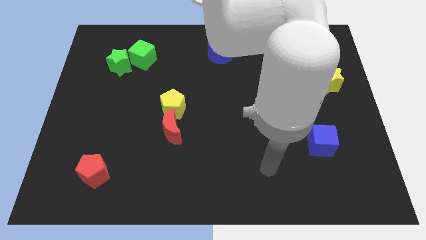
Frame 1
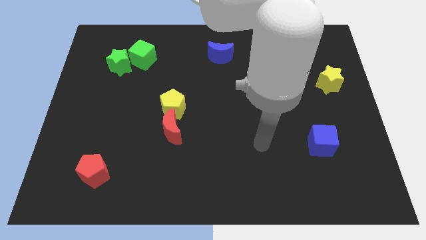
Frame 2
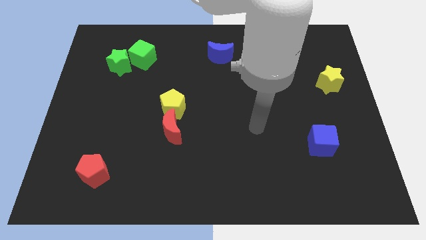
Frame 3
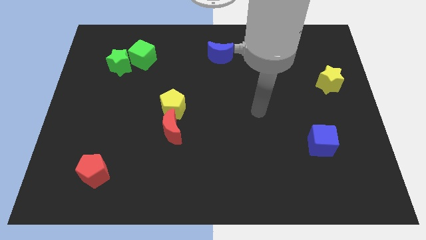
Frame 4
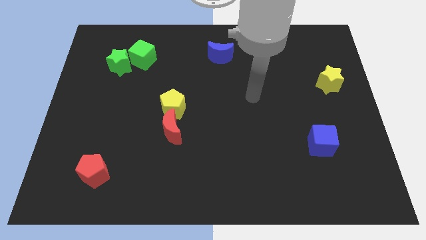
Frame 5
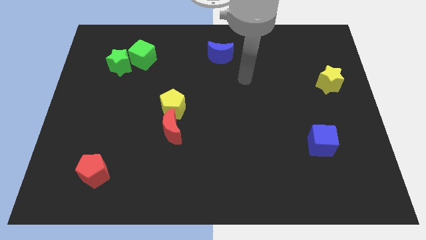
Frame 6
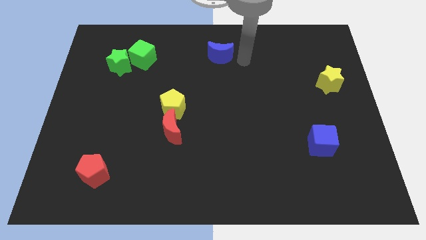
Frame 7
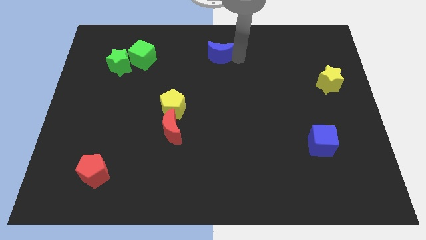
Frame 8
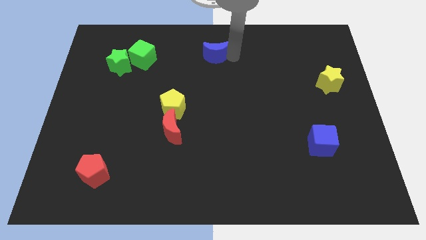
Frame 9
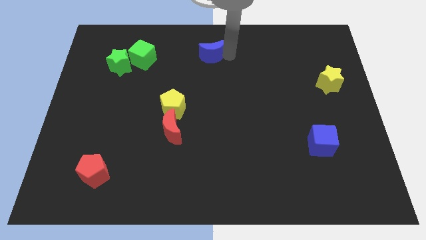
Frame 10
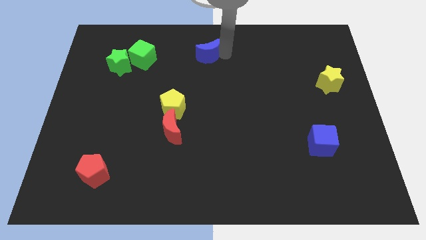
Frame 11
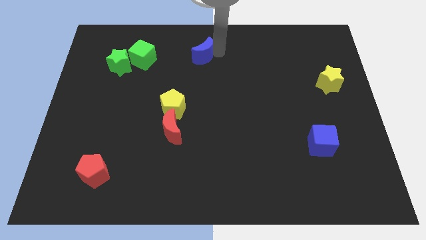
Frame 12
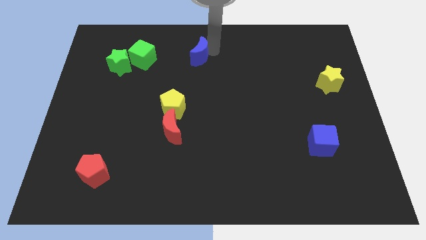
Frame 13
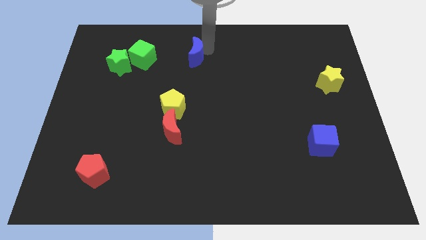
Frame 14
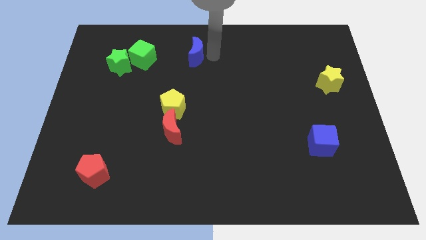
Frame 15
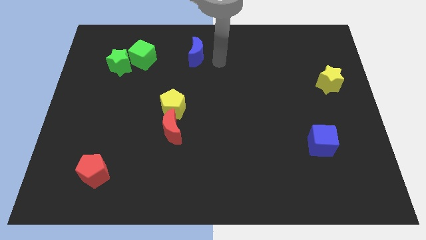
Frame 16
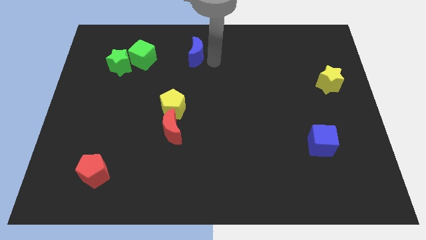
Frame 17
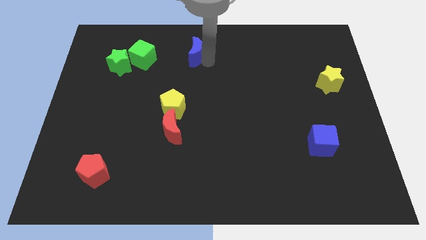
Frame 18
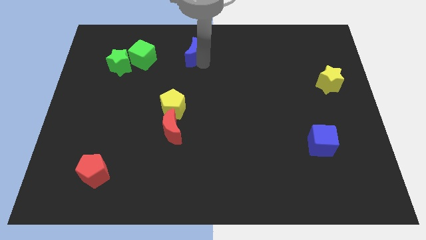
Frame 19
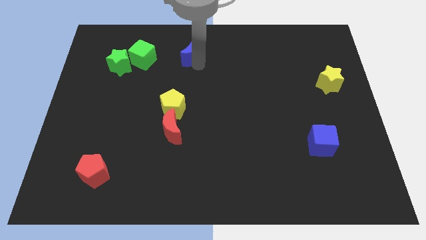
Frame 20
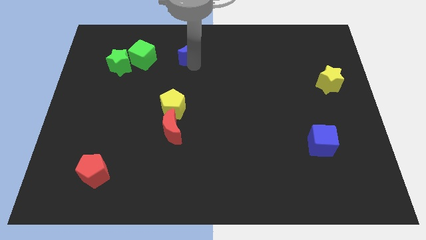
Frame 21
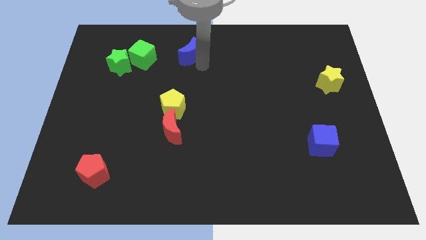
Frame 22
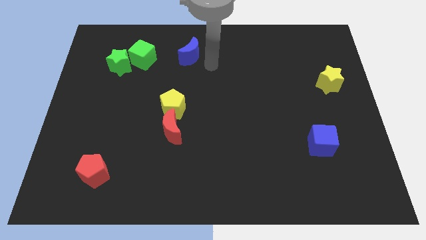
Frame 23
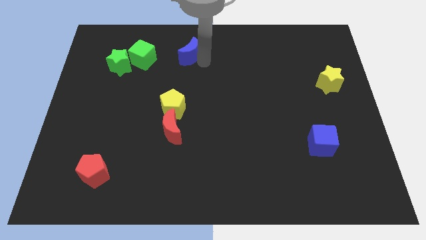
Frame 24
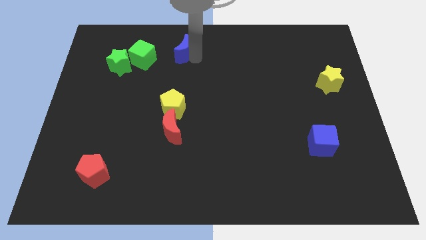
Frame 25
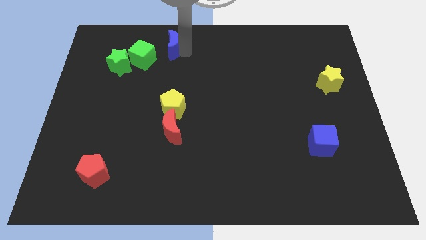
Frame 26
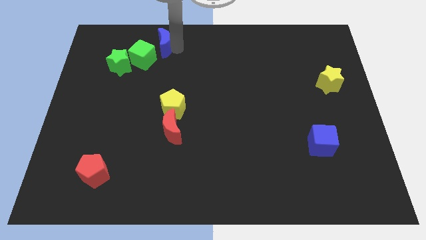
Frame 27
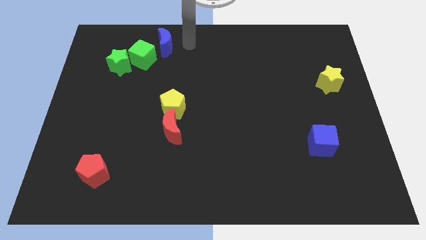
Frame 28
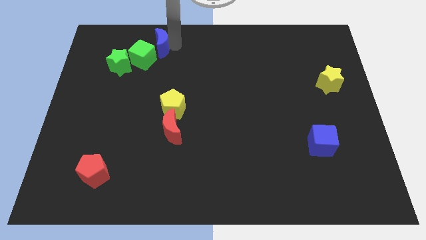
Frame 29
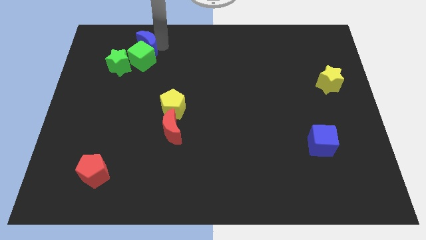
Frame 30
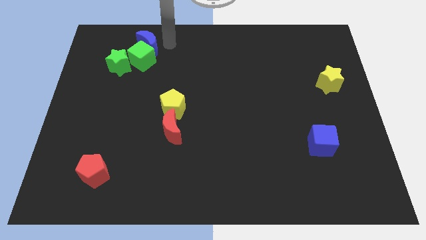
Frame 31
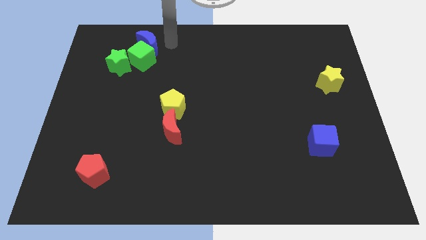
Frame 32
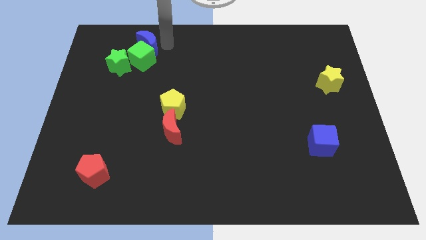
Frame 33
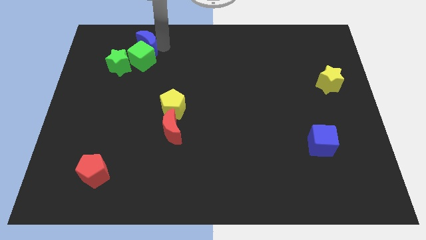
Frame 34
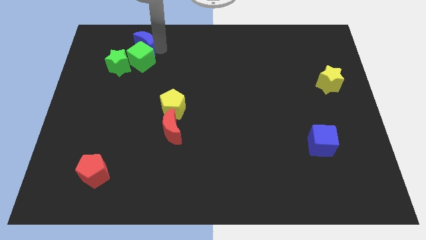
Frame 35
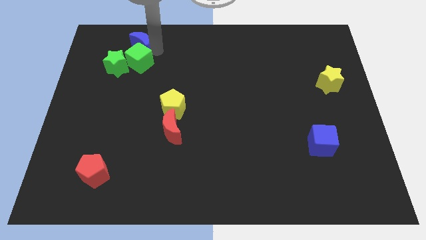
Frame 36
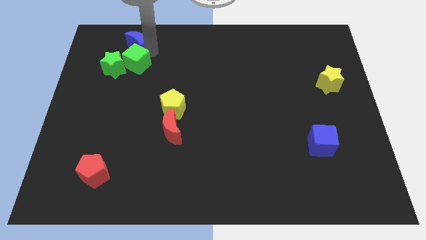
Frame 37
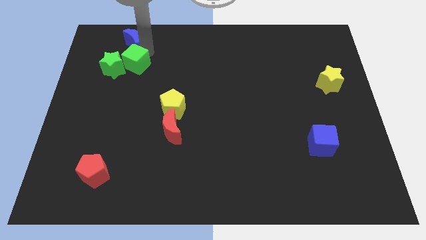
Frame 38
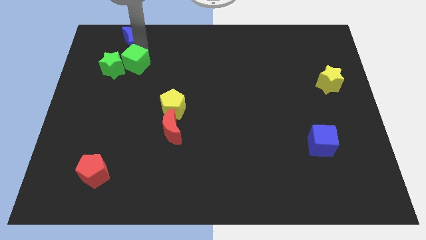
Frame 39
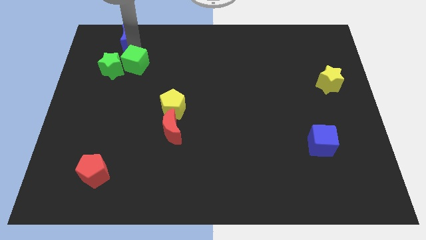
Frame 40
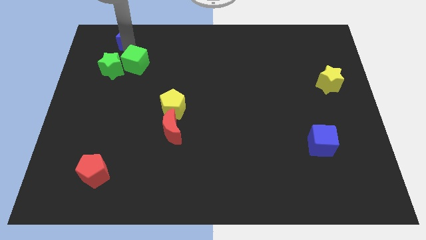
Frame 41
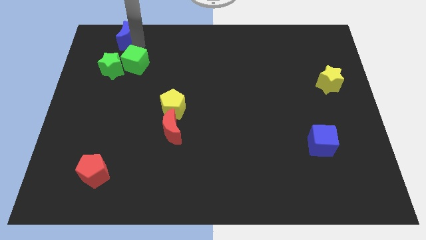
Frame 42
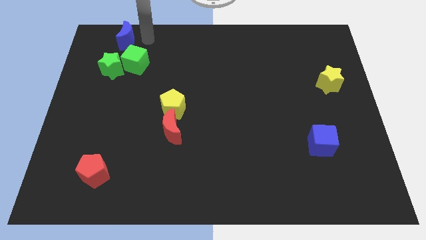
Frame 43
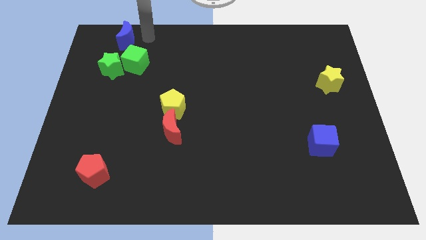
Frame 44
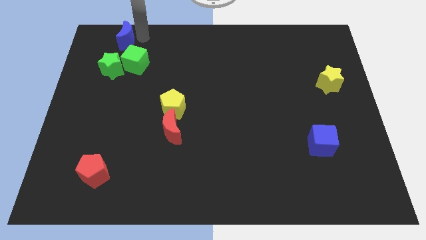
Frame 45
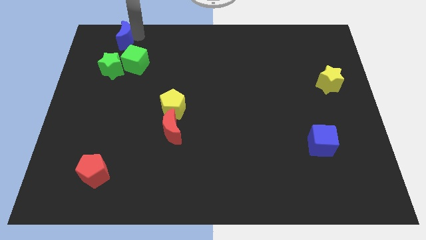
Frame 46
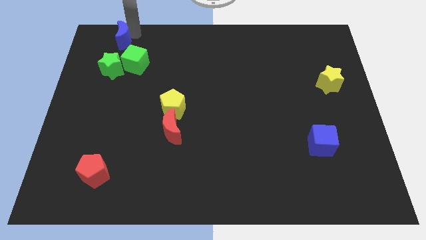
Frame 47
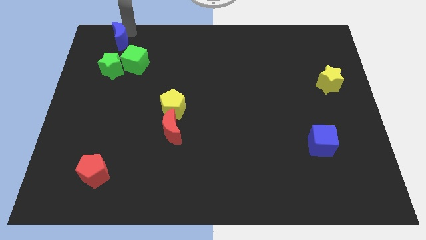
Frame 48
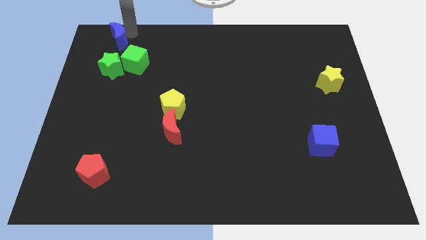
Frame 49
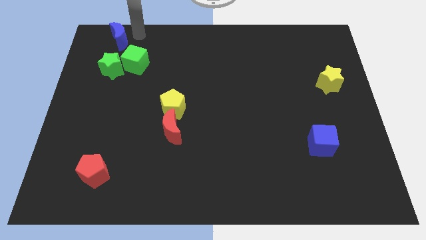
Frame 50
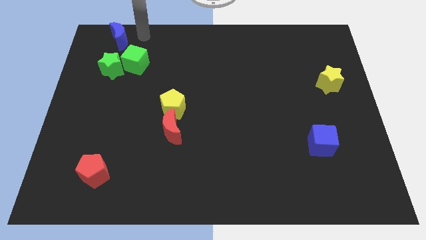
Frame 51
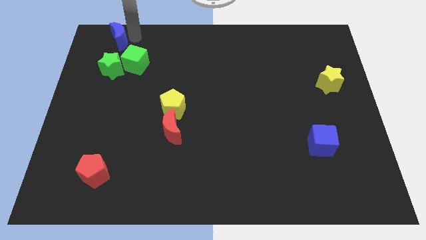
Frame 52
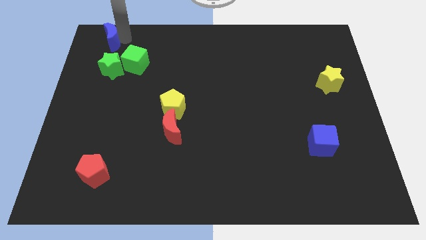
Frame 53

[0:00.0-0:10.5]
move the blue moon to the upper left corner

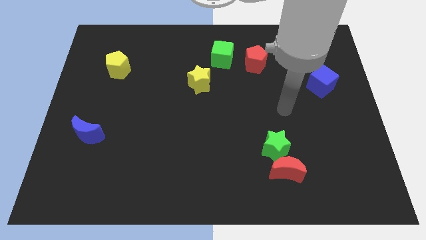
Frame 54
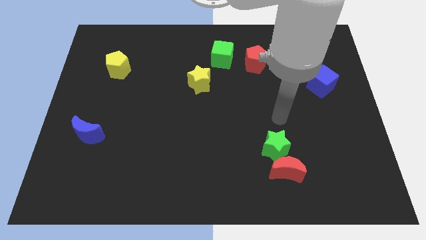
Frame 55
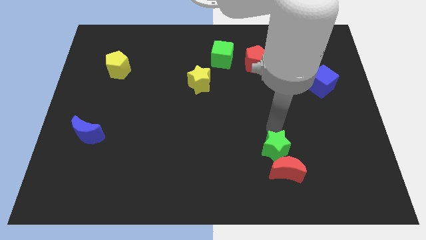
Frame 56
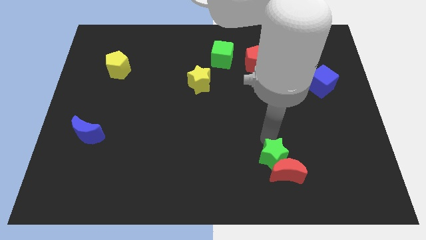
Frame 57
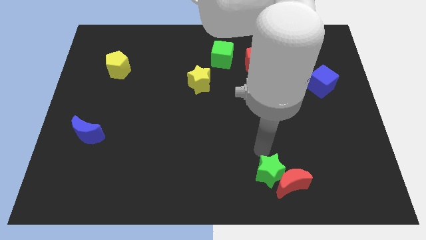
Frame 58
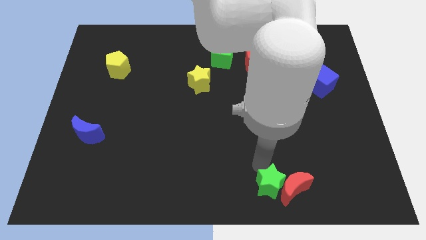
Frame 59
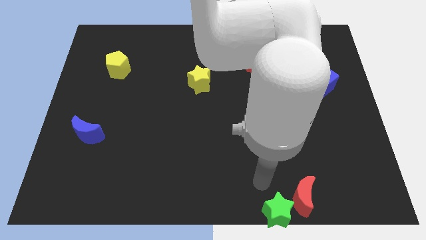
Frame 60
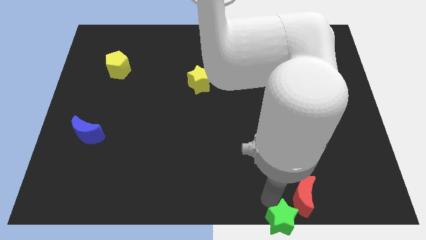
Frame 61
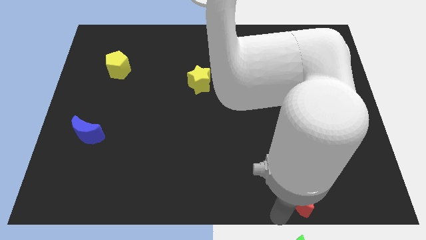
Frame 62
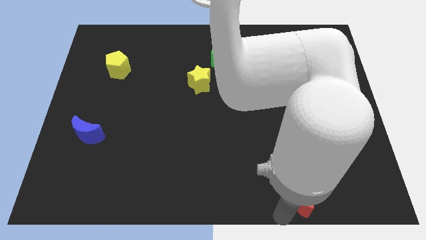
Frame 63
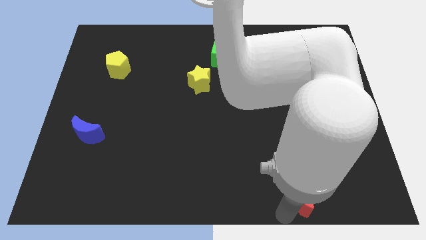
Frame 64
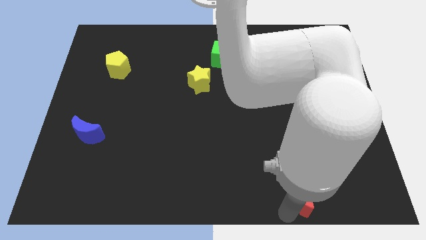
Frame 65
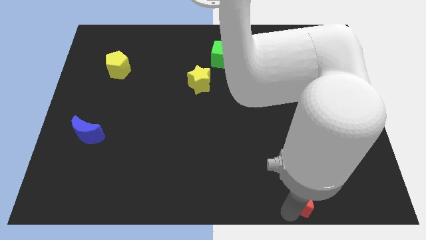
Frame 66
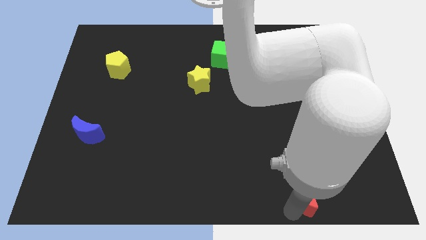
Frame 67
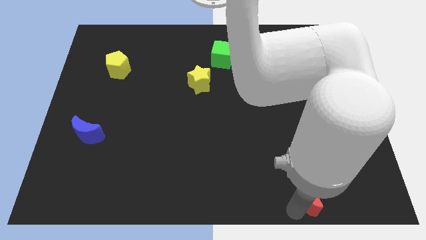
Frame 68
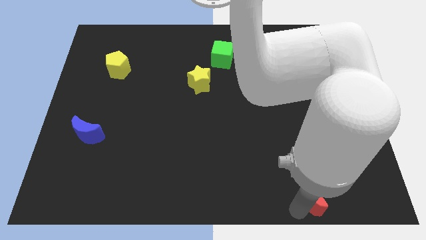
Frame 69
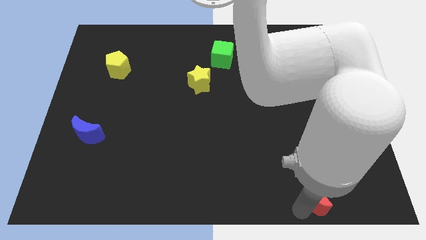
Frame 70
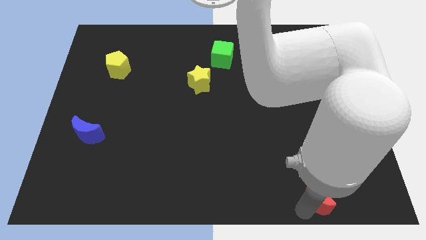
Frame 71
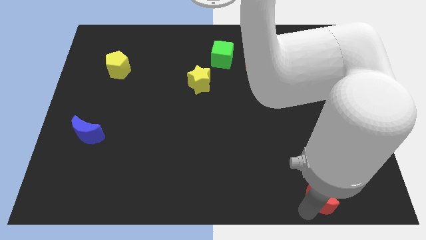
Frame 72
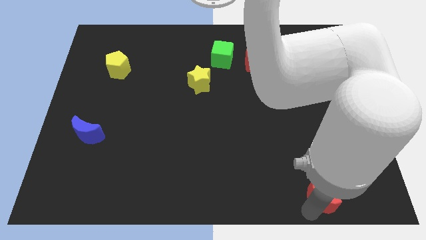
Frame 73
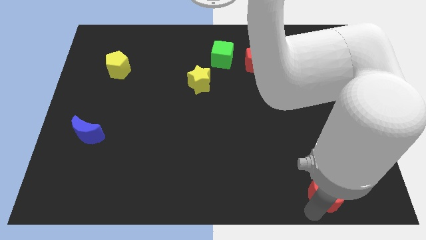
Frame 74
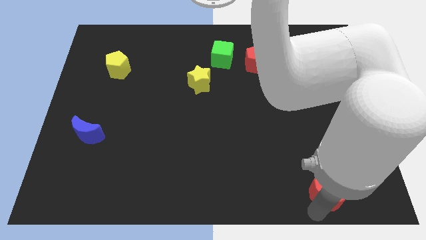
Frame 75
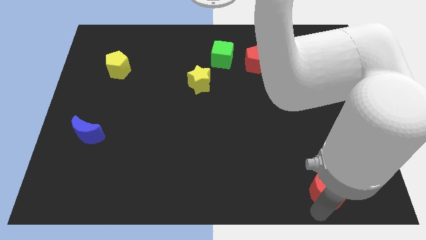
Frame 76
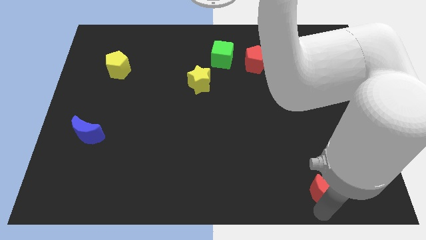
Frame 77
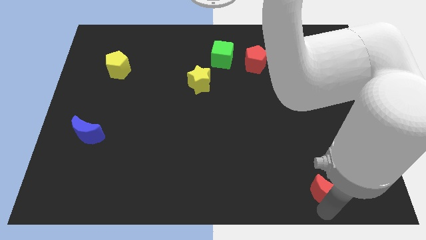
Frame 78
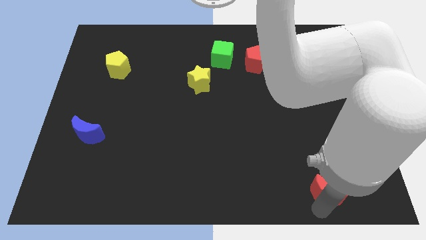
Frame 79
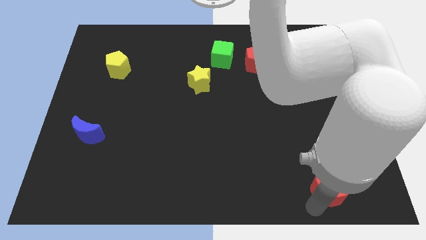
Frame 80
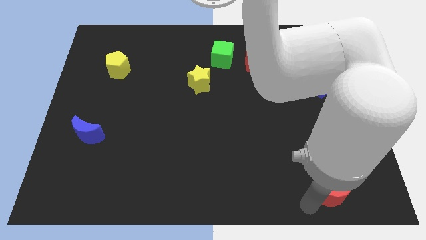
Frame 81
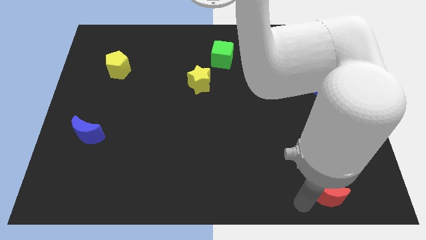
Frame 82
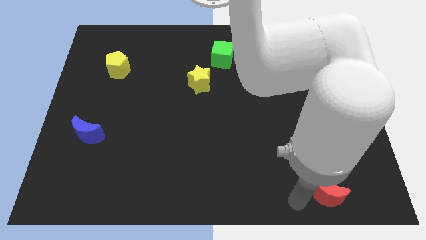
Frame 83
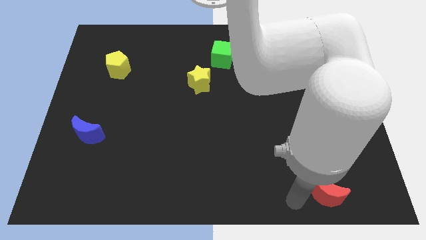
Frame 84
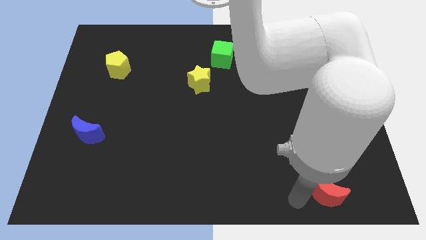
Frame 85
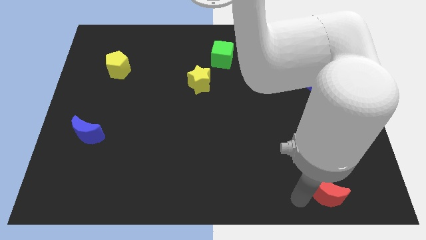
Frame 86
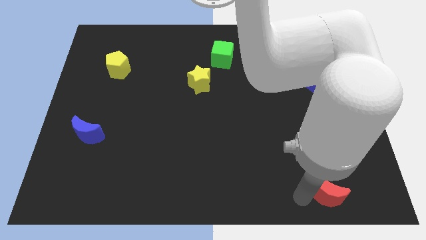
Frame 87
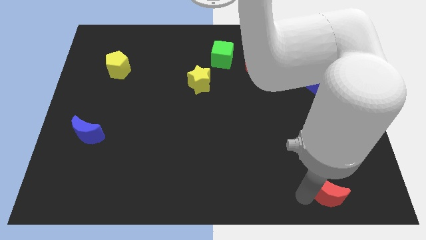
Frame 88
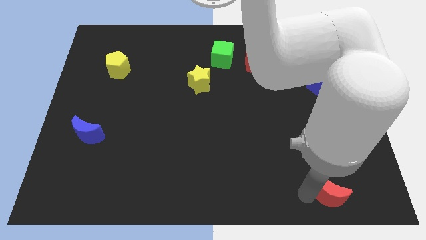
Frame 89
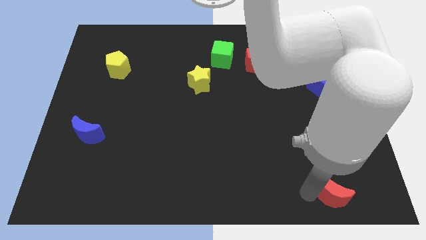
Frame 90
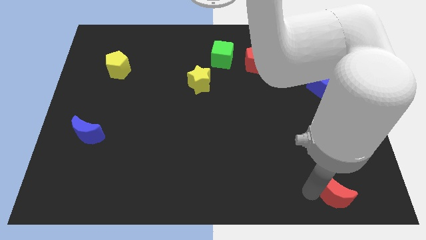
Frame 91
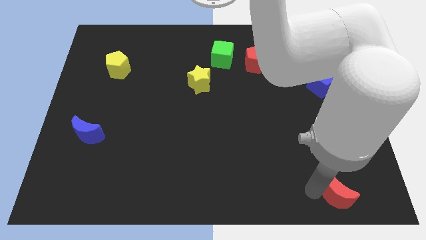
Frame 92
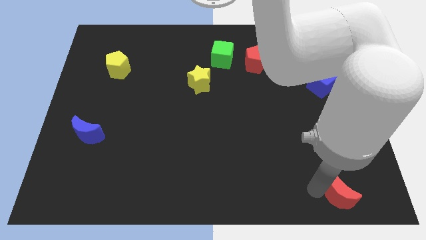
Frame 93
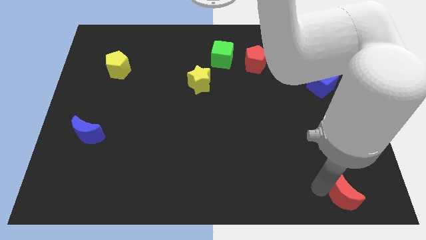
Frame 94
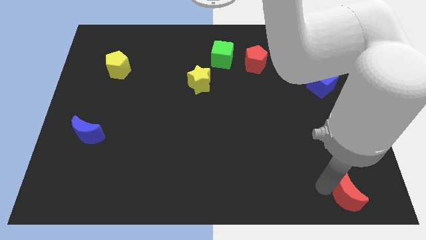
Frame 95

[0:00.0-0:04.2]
push the red moon to the bottom right of the board
